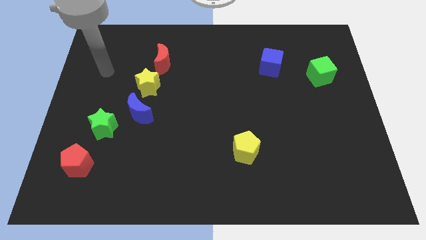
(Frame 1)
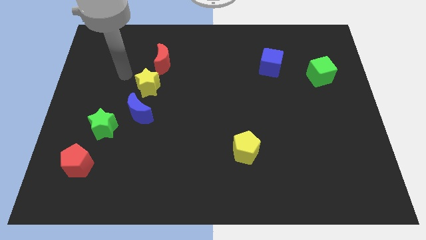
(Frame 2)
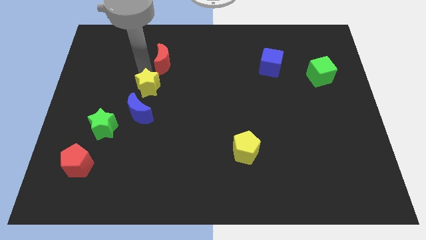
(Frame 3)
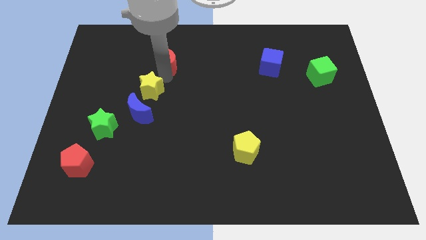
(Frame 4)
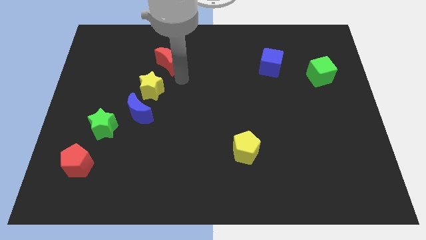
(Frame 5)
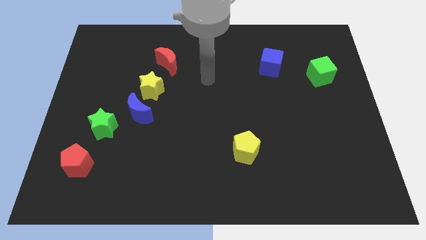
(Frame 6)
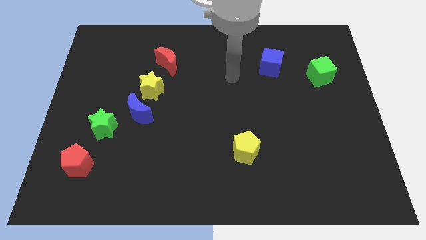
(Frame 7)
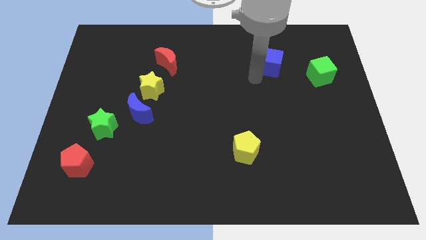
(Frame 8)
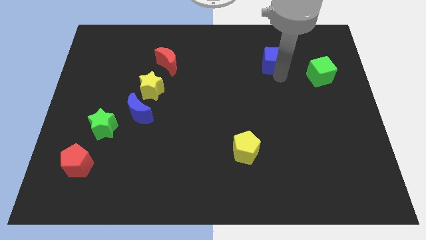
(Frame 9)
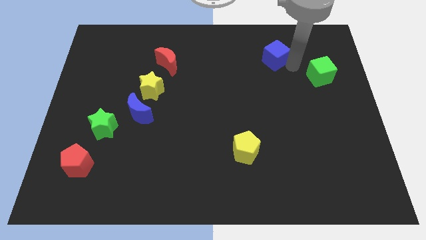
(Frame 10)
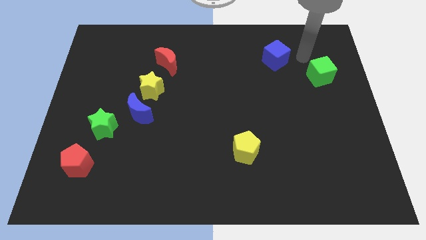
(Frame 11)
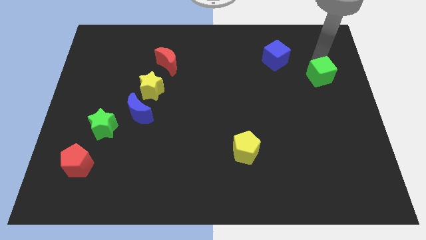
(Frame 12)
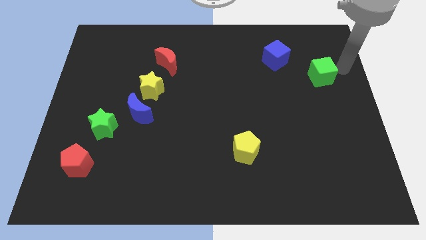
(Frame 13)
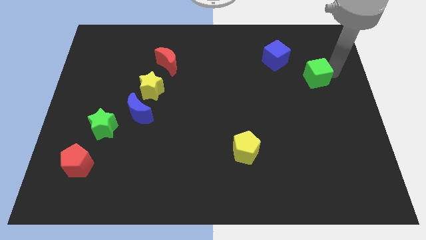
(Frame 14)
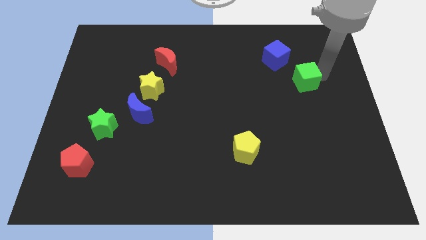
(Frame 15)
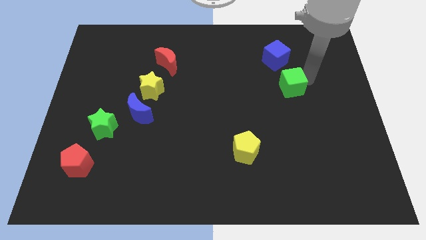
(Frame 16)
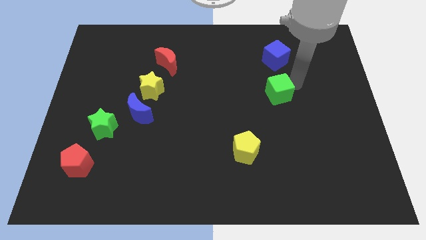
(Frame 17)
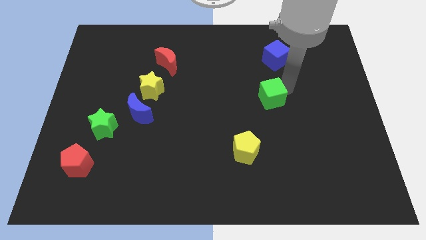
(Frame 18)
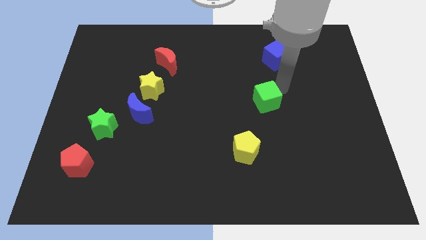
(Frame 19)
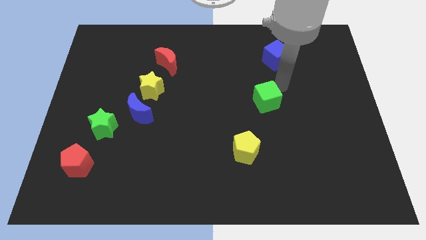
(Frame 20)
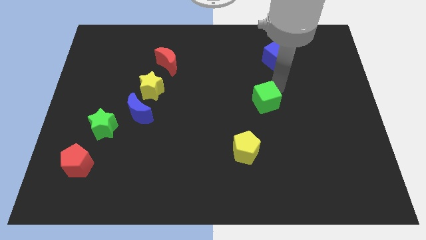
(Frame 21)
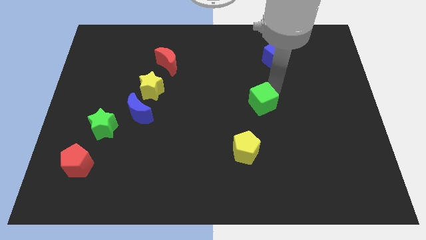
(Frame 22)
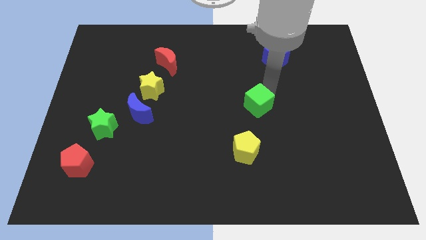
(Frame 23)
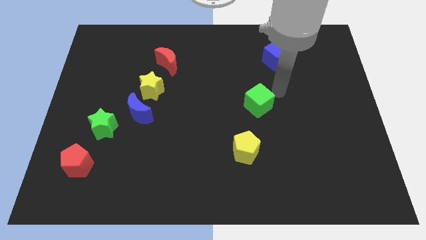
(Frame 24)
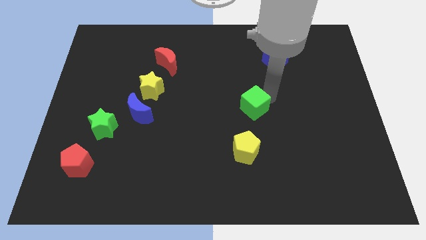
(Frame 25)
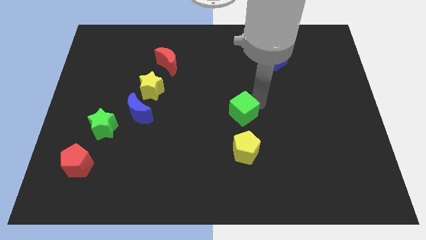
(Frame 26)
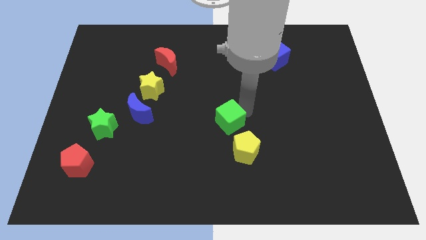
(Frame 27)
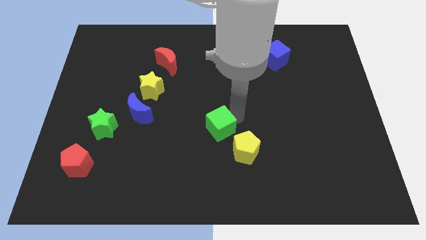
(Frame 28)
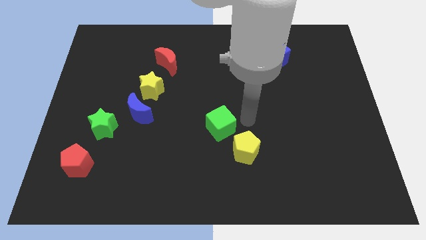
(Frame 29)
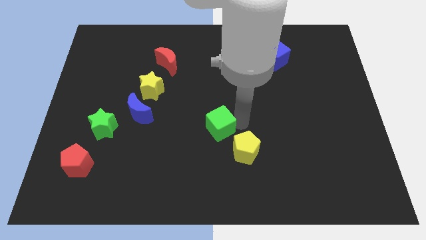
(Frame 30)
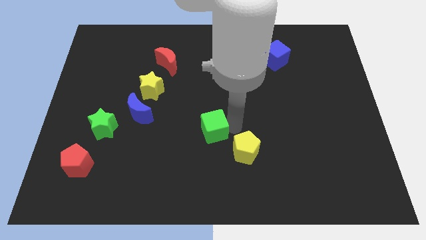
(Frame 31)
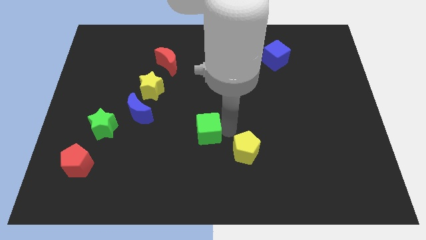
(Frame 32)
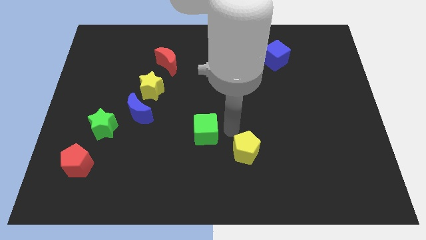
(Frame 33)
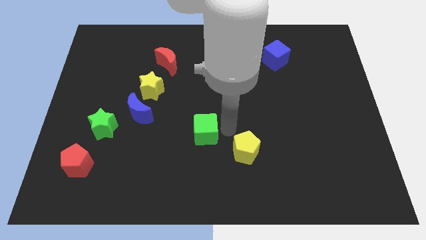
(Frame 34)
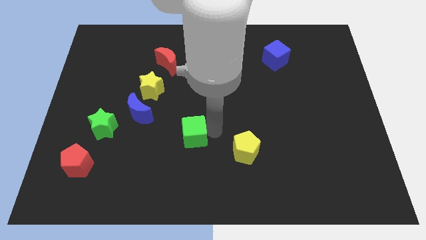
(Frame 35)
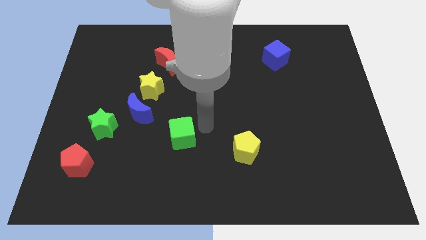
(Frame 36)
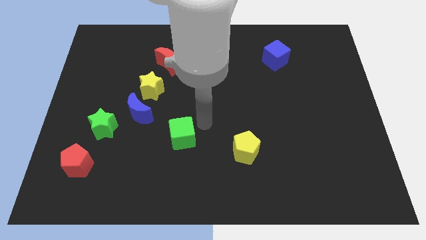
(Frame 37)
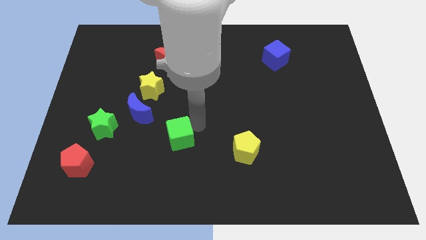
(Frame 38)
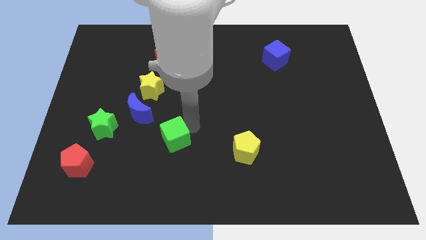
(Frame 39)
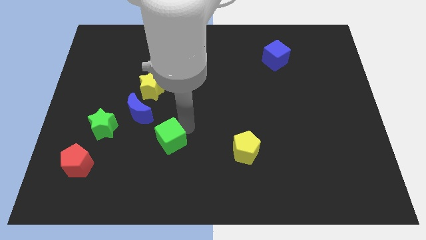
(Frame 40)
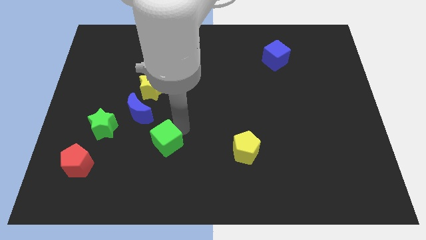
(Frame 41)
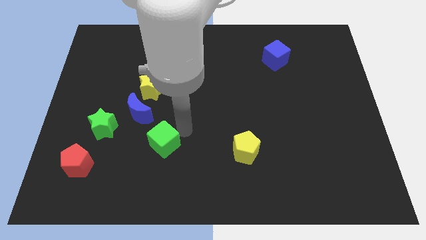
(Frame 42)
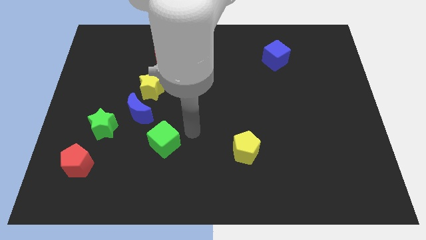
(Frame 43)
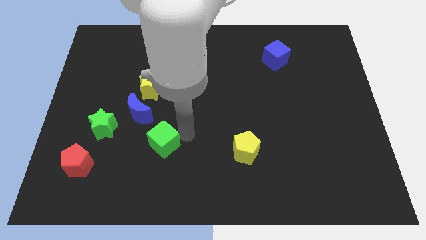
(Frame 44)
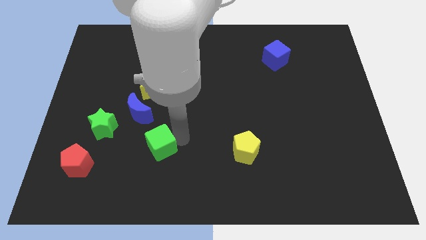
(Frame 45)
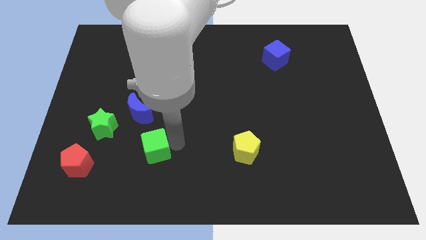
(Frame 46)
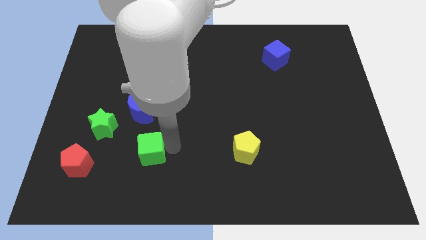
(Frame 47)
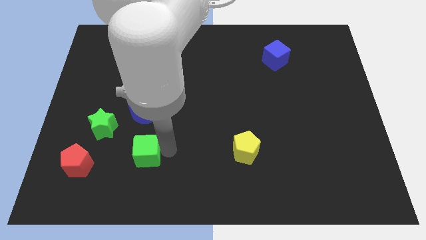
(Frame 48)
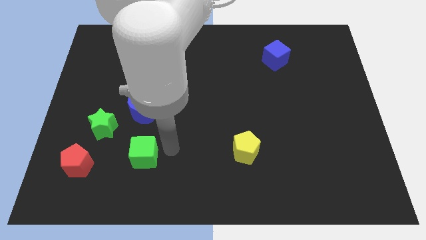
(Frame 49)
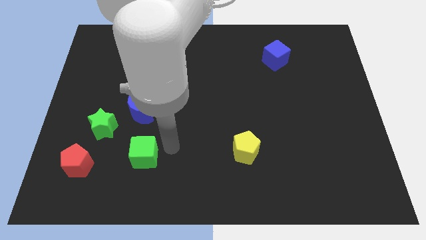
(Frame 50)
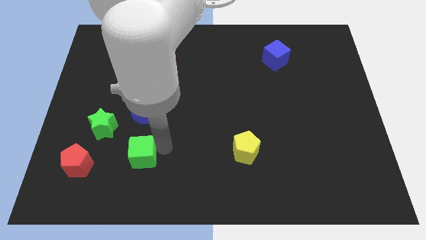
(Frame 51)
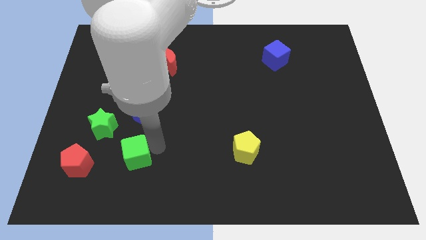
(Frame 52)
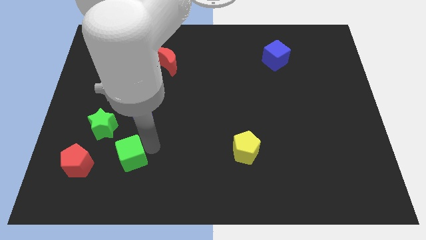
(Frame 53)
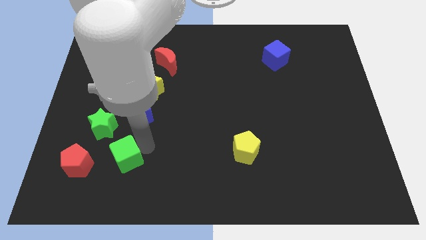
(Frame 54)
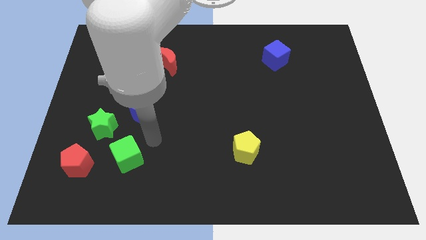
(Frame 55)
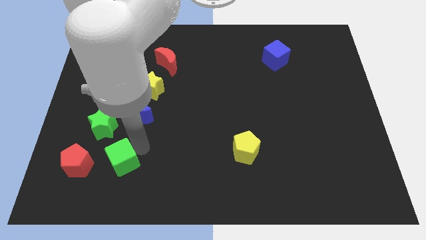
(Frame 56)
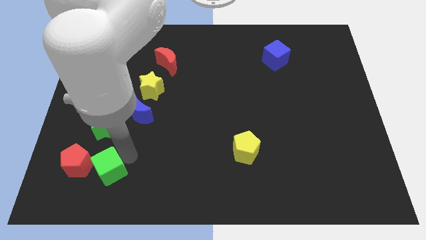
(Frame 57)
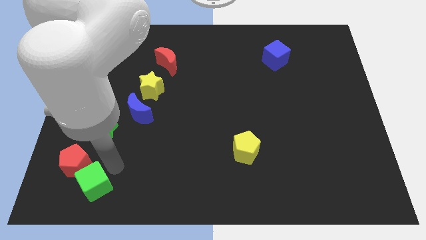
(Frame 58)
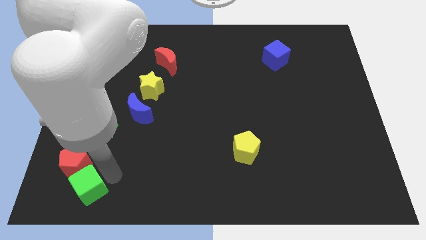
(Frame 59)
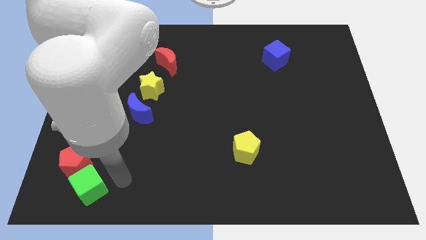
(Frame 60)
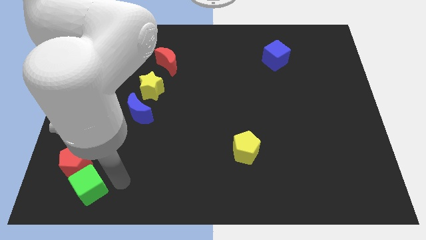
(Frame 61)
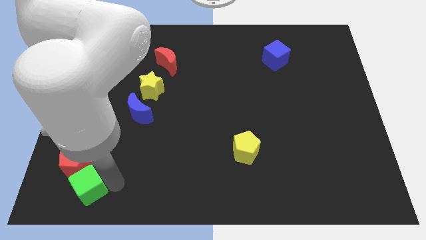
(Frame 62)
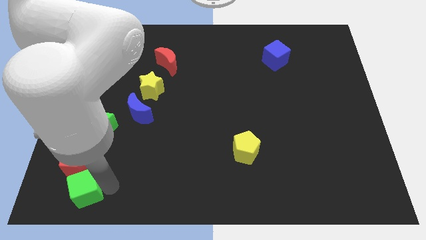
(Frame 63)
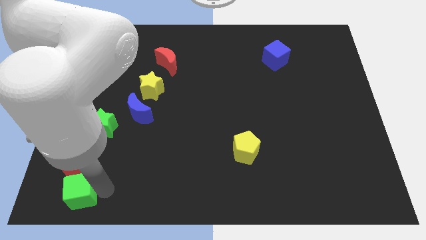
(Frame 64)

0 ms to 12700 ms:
slide the green cube to the bottom left of the board
